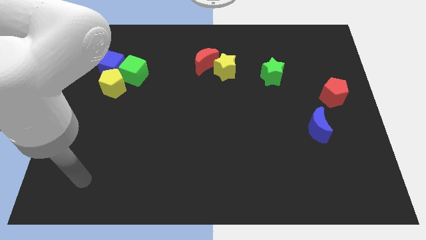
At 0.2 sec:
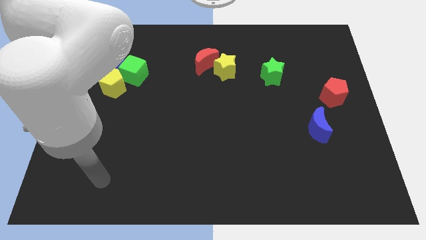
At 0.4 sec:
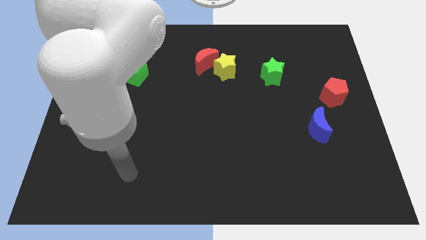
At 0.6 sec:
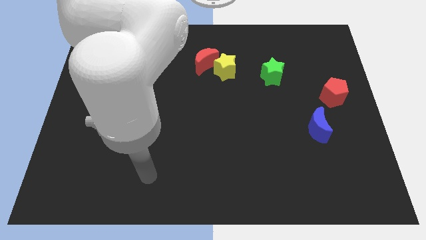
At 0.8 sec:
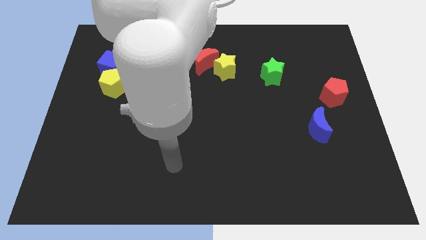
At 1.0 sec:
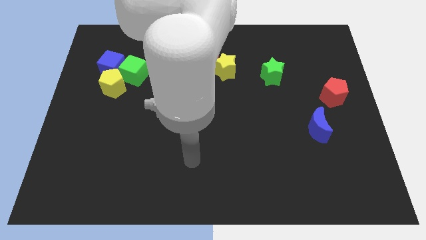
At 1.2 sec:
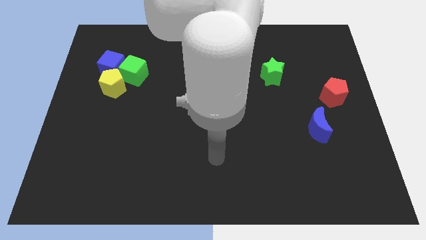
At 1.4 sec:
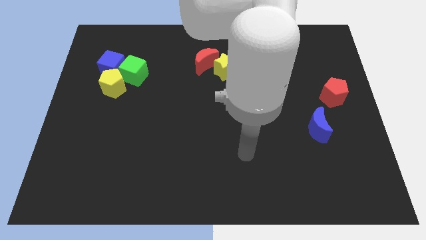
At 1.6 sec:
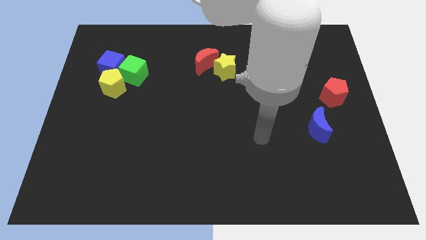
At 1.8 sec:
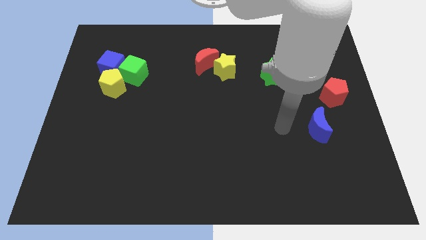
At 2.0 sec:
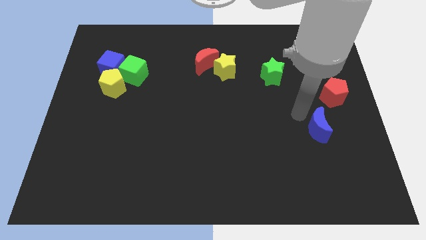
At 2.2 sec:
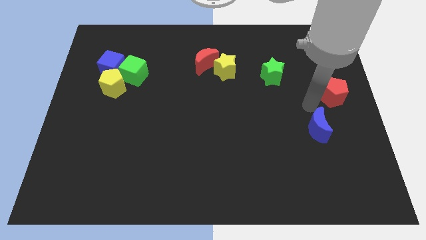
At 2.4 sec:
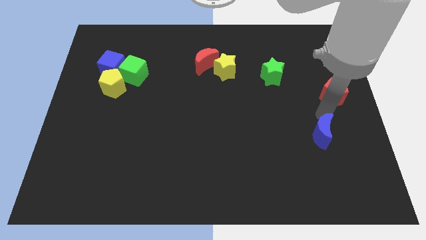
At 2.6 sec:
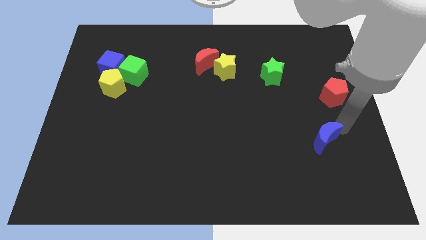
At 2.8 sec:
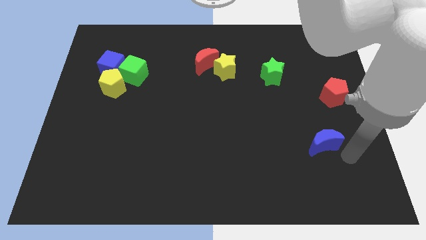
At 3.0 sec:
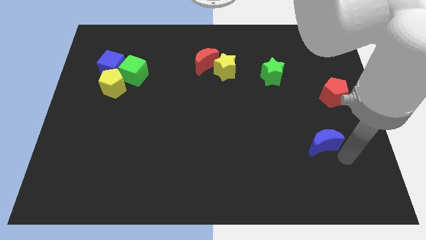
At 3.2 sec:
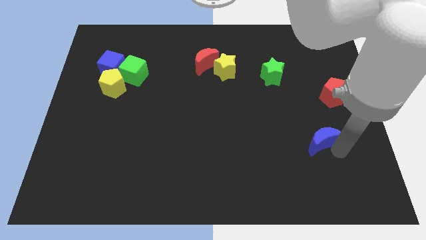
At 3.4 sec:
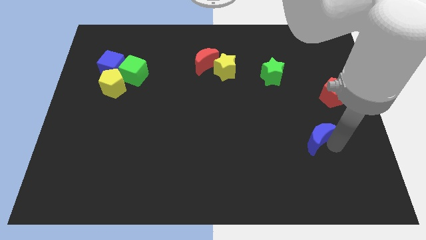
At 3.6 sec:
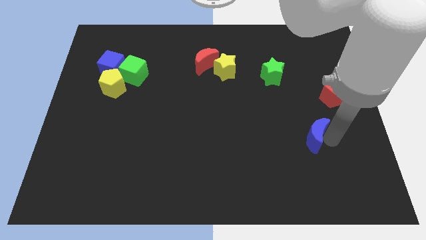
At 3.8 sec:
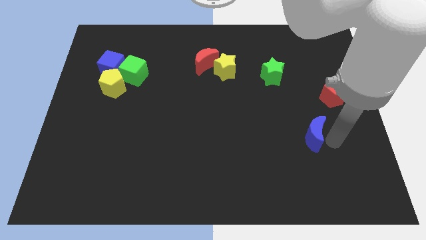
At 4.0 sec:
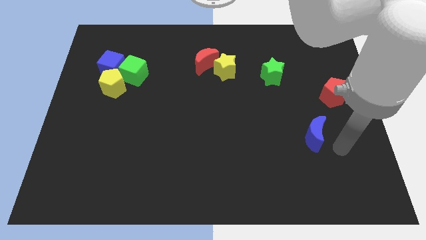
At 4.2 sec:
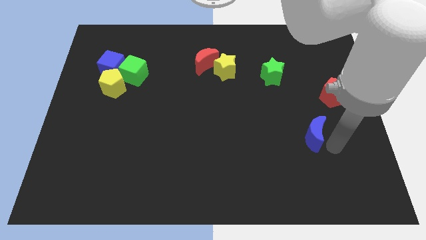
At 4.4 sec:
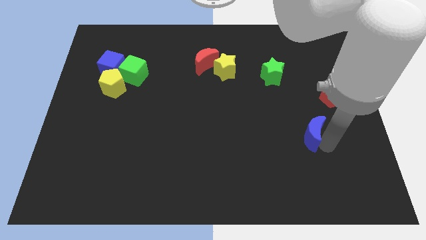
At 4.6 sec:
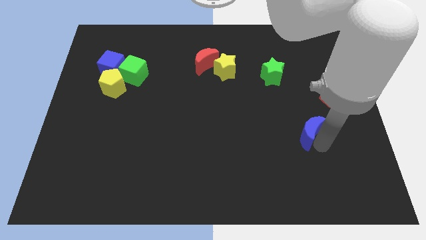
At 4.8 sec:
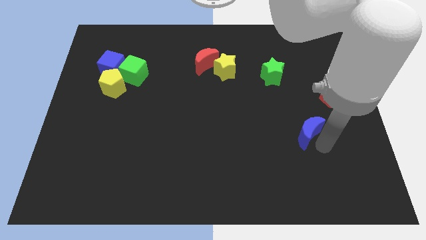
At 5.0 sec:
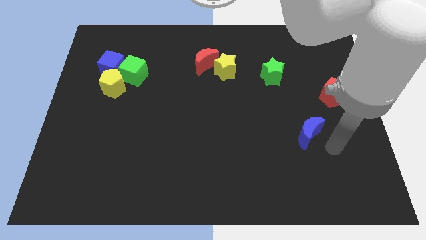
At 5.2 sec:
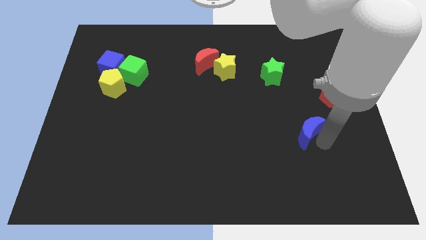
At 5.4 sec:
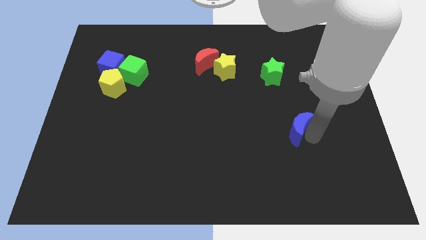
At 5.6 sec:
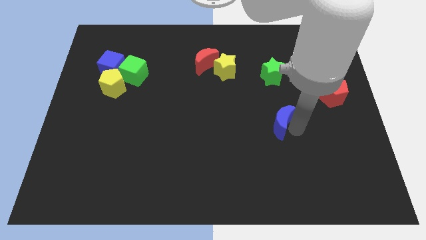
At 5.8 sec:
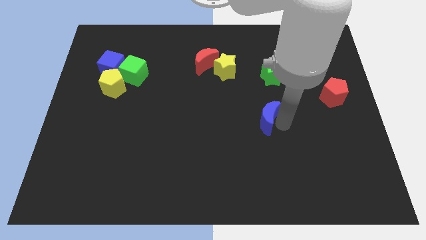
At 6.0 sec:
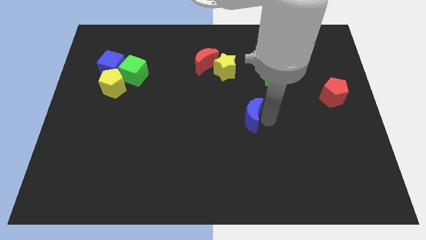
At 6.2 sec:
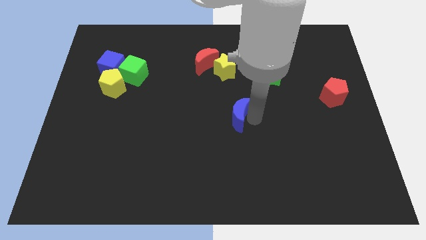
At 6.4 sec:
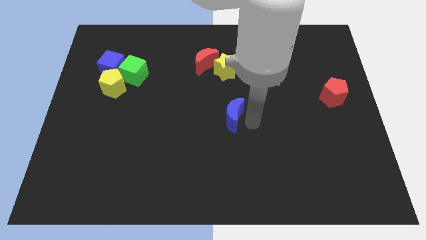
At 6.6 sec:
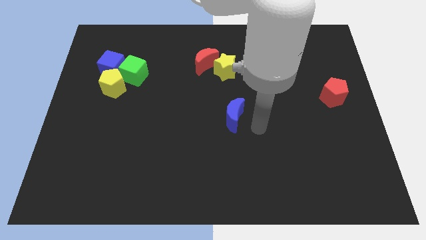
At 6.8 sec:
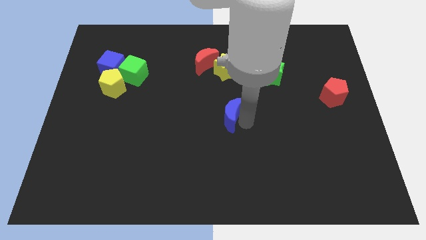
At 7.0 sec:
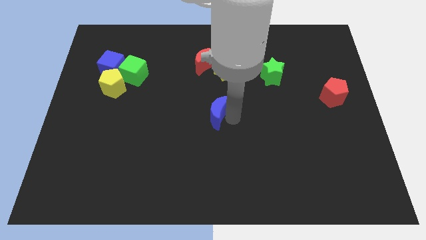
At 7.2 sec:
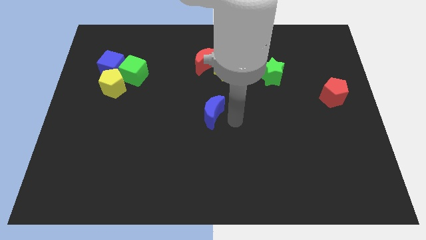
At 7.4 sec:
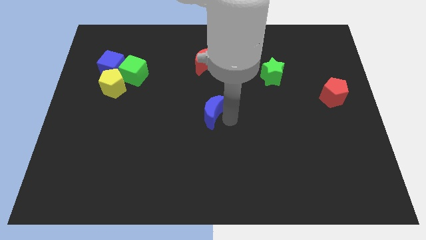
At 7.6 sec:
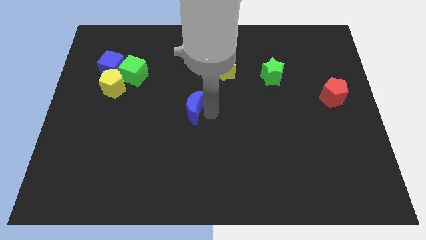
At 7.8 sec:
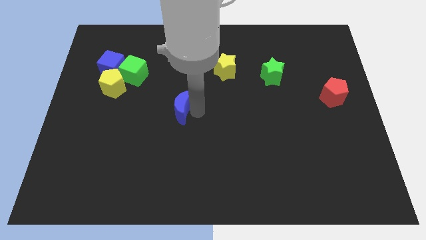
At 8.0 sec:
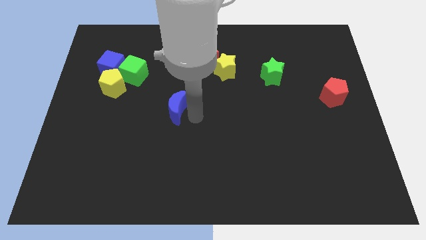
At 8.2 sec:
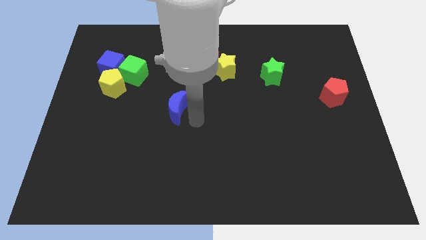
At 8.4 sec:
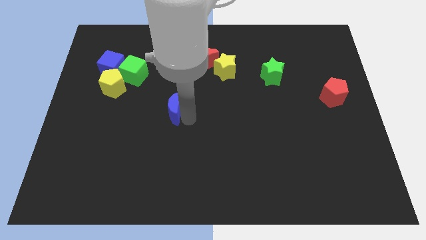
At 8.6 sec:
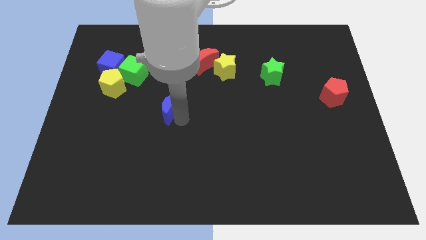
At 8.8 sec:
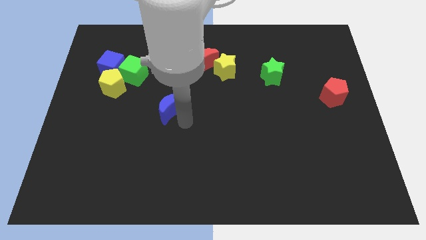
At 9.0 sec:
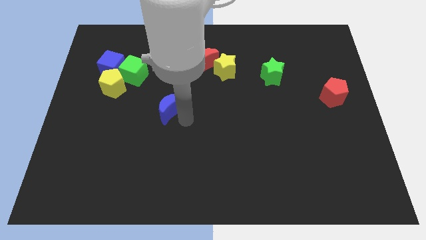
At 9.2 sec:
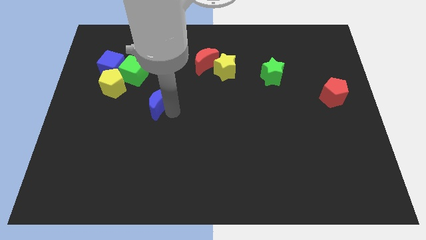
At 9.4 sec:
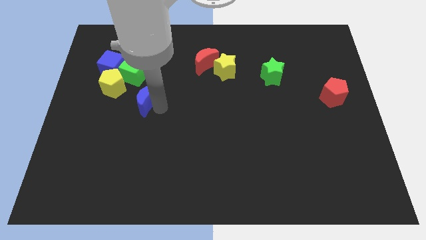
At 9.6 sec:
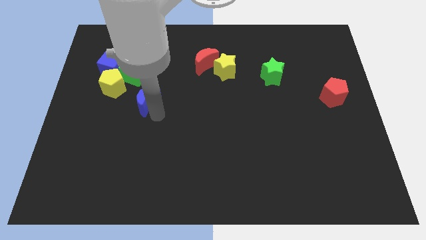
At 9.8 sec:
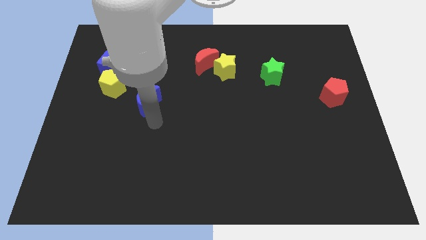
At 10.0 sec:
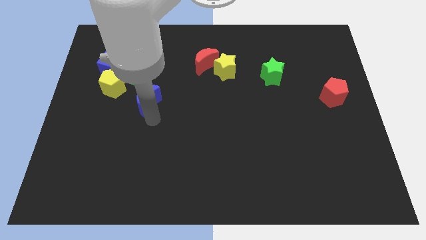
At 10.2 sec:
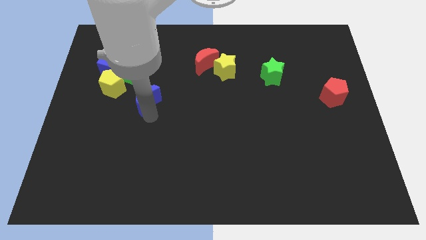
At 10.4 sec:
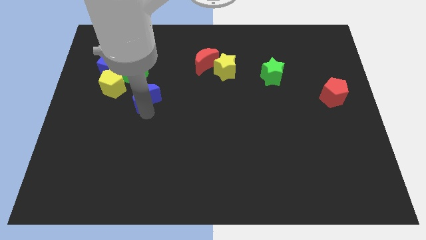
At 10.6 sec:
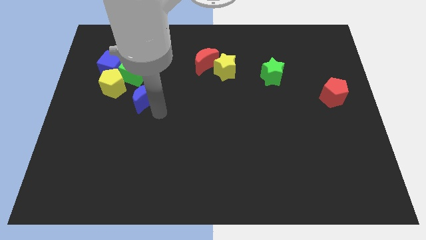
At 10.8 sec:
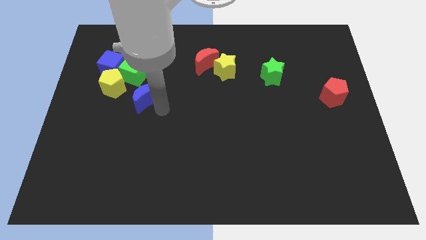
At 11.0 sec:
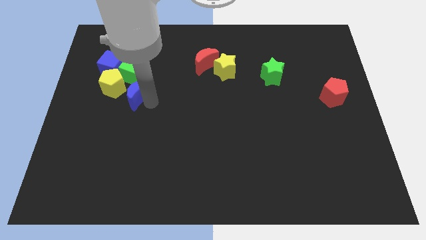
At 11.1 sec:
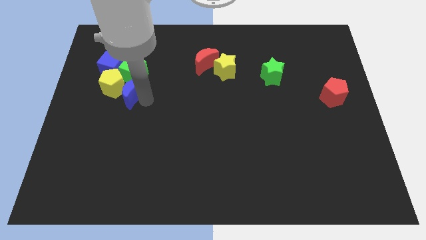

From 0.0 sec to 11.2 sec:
push the blue moon to the yellow pentagon

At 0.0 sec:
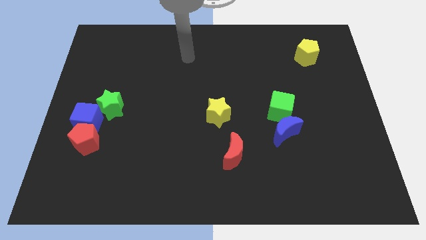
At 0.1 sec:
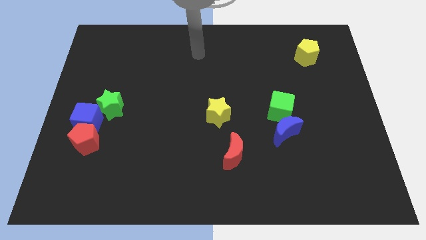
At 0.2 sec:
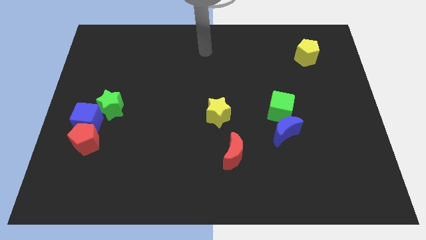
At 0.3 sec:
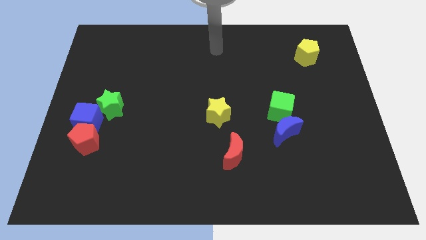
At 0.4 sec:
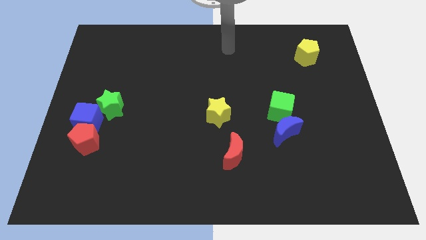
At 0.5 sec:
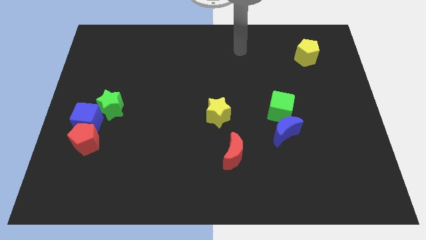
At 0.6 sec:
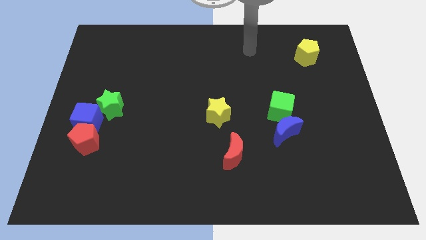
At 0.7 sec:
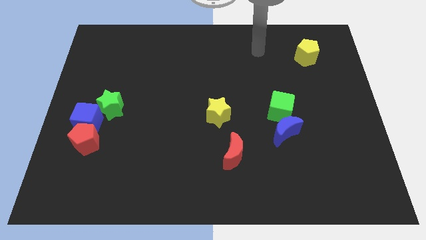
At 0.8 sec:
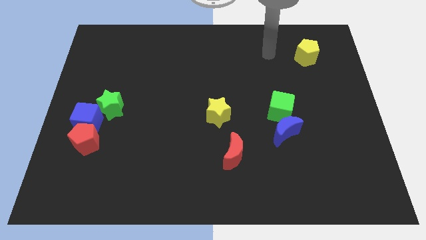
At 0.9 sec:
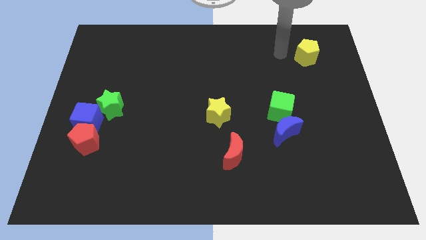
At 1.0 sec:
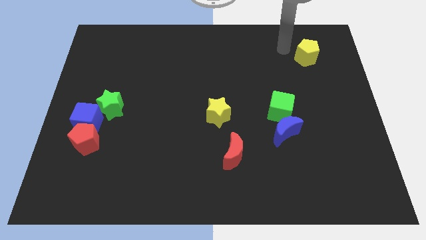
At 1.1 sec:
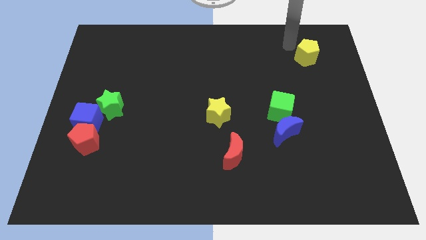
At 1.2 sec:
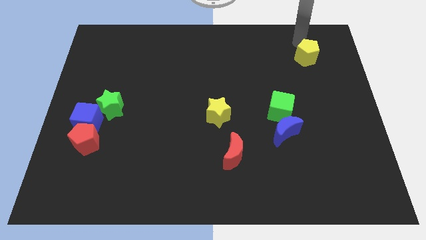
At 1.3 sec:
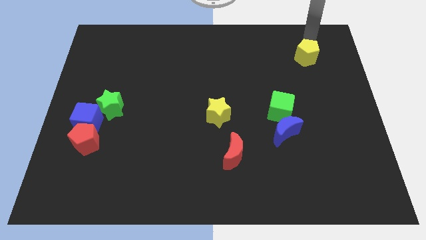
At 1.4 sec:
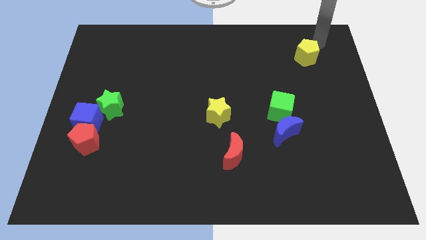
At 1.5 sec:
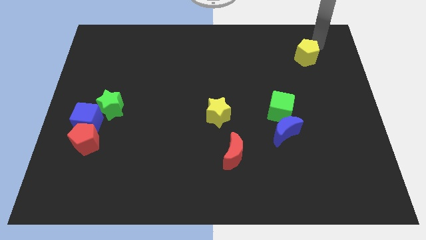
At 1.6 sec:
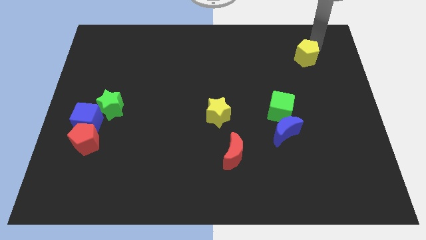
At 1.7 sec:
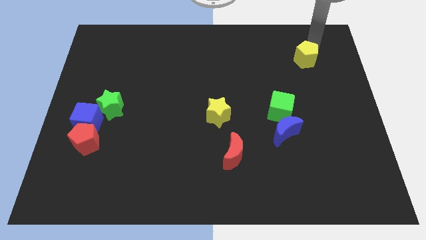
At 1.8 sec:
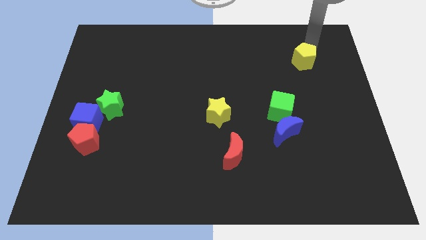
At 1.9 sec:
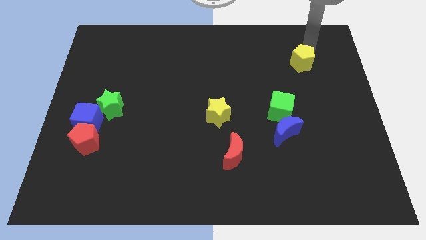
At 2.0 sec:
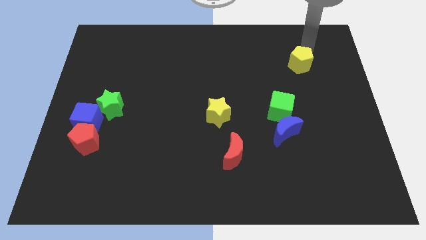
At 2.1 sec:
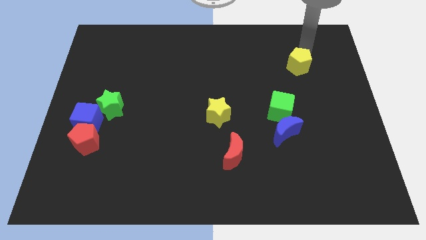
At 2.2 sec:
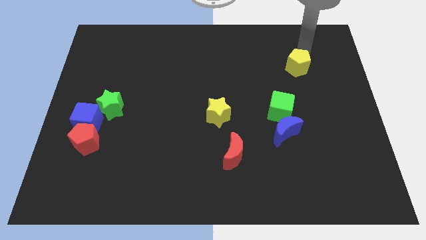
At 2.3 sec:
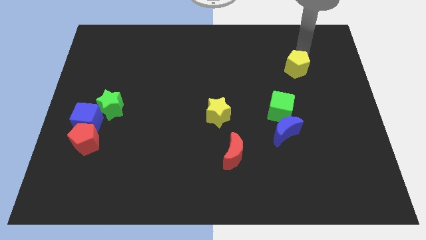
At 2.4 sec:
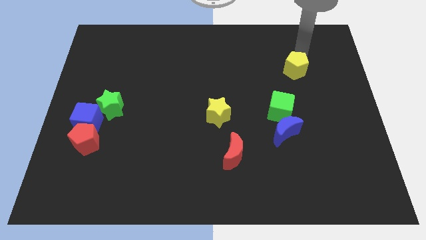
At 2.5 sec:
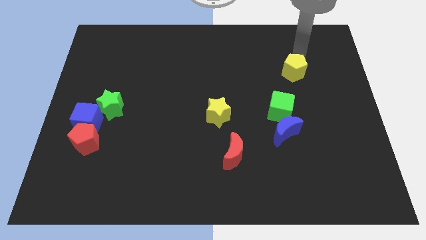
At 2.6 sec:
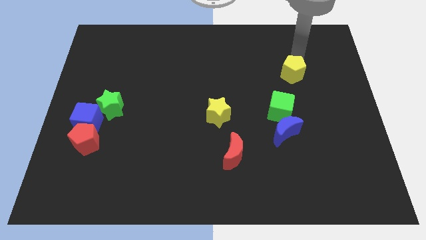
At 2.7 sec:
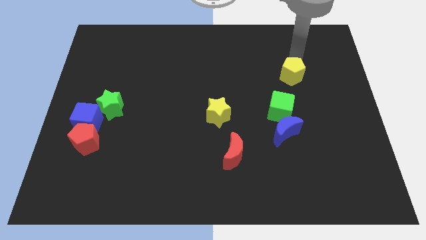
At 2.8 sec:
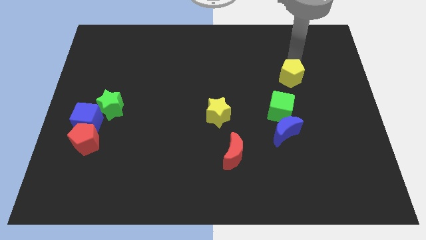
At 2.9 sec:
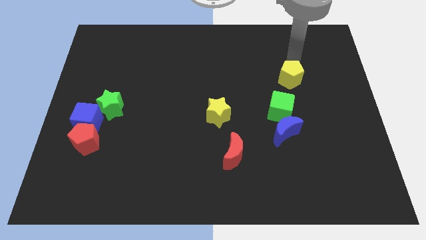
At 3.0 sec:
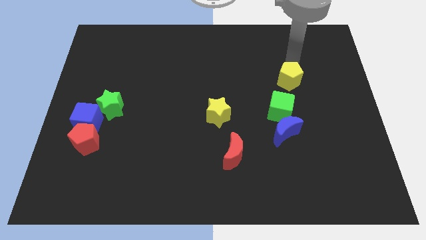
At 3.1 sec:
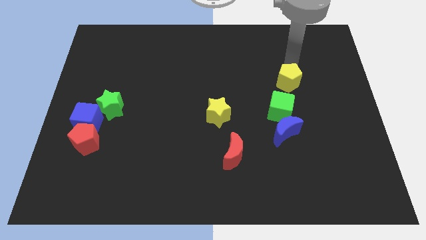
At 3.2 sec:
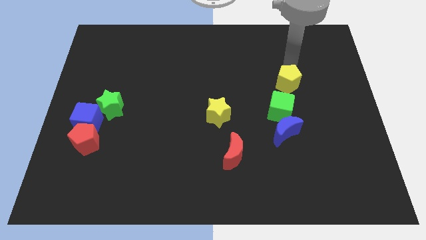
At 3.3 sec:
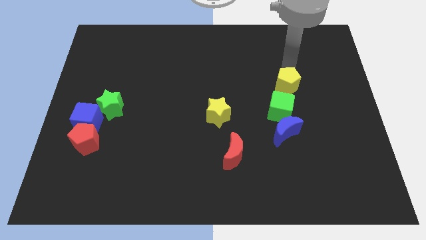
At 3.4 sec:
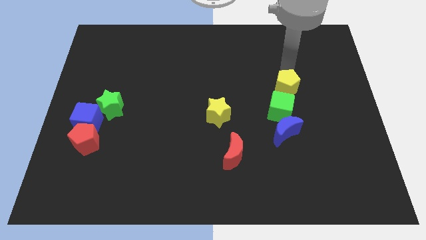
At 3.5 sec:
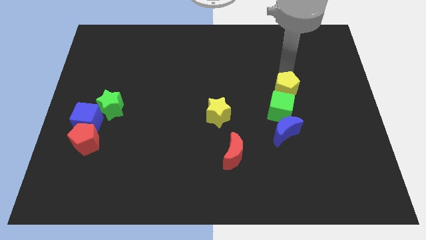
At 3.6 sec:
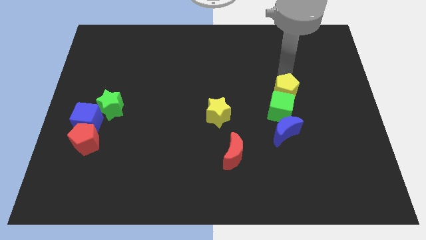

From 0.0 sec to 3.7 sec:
put the yellow pentagon to the green cube
